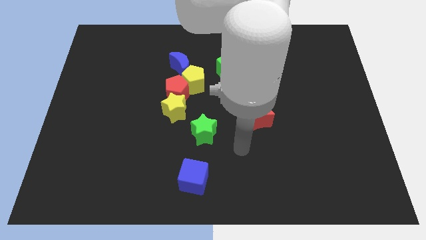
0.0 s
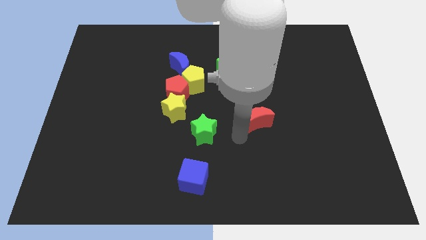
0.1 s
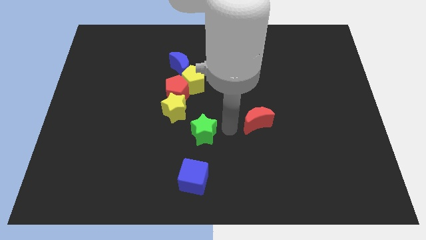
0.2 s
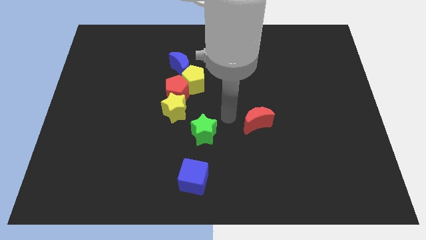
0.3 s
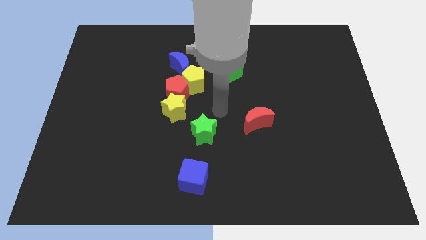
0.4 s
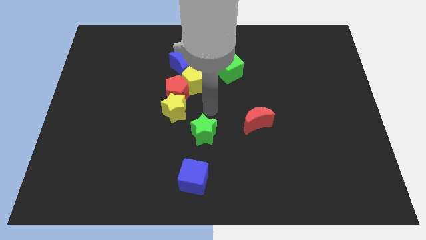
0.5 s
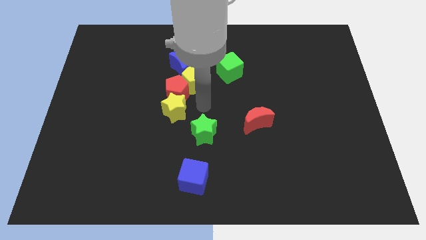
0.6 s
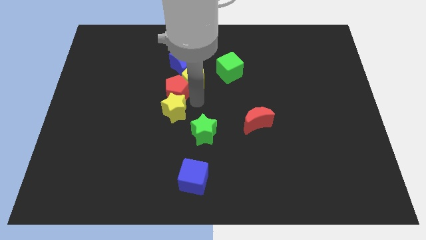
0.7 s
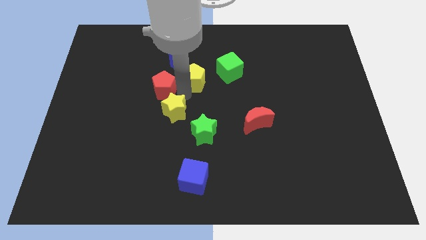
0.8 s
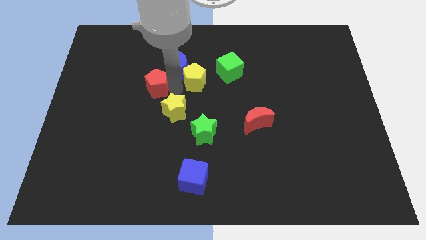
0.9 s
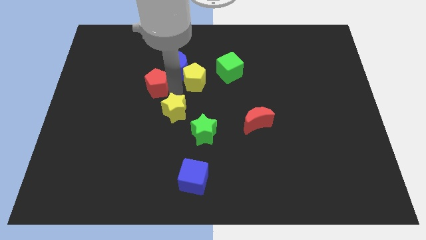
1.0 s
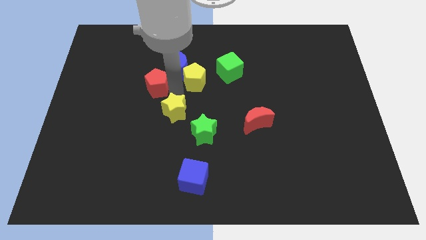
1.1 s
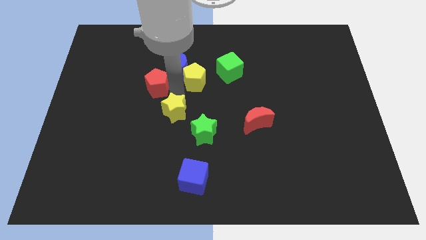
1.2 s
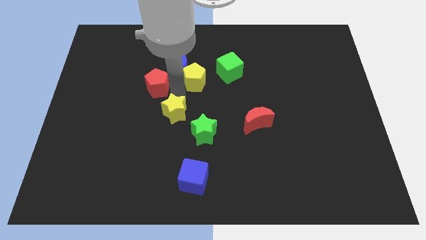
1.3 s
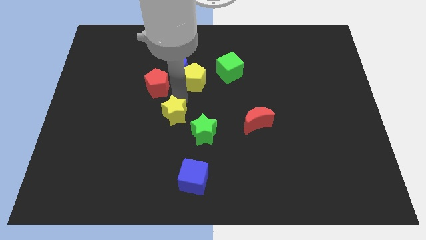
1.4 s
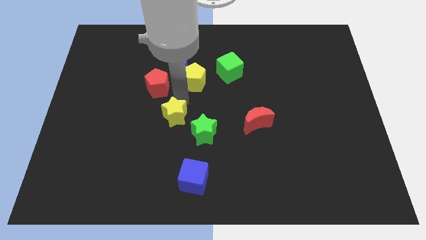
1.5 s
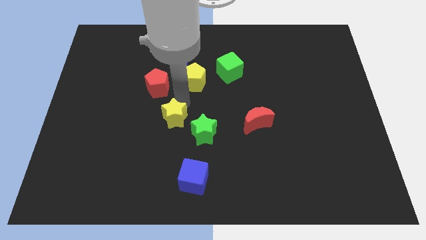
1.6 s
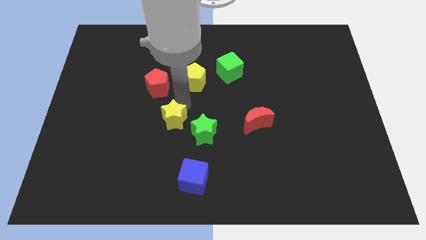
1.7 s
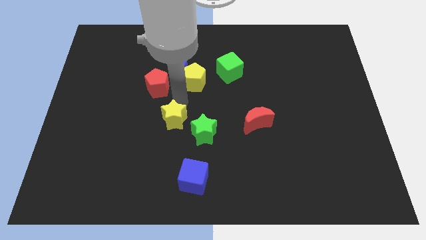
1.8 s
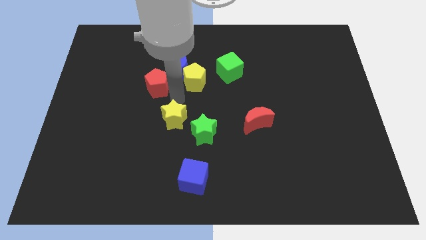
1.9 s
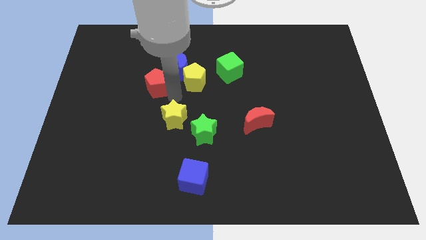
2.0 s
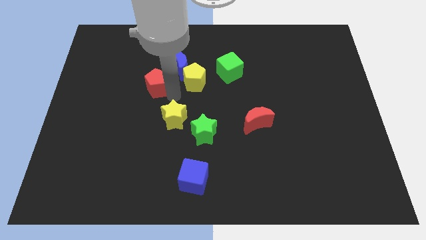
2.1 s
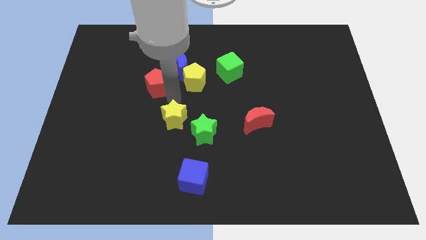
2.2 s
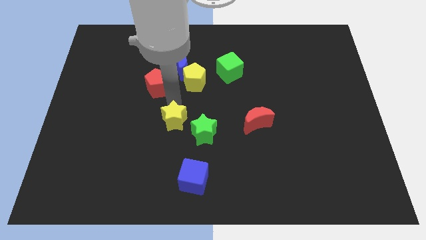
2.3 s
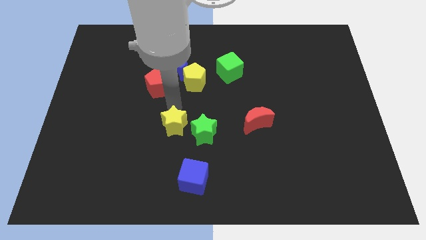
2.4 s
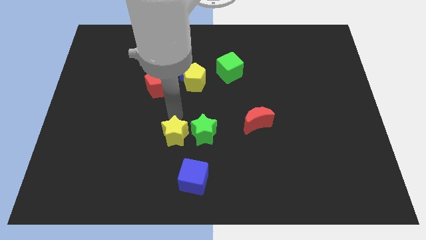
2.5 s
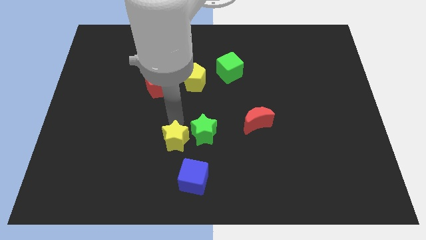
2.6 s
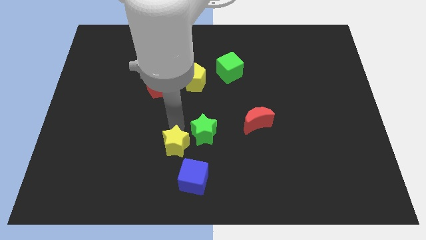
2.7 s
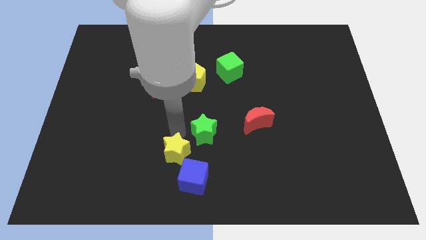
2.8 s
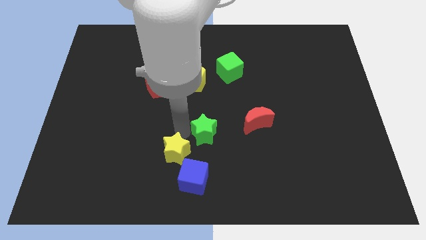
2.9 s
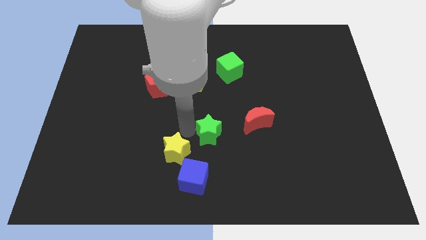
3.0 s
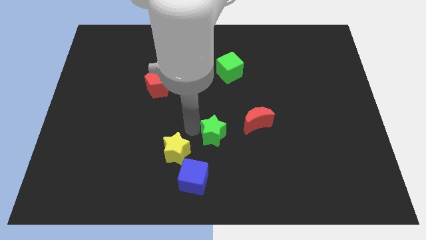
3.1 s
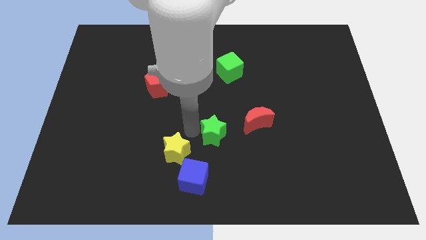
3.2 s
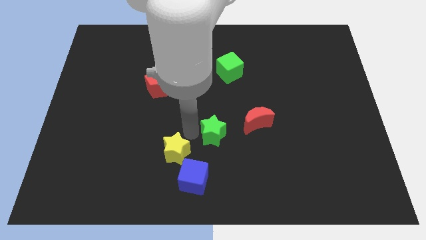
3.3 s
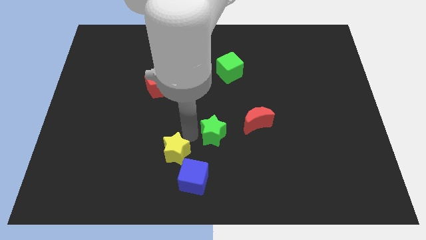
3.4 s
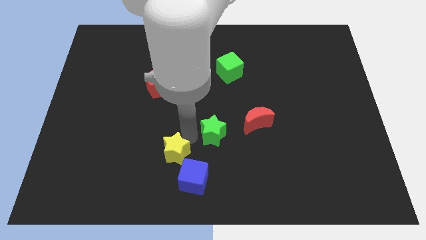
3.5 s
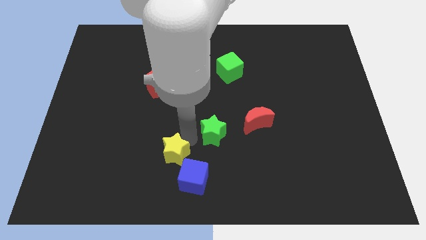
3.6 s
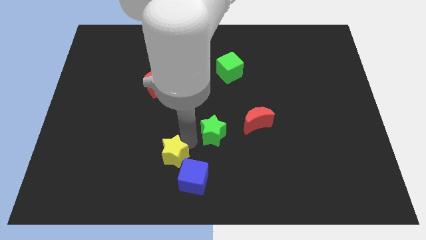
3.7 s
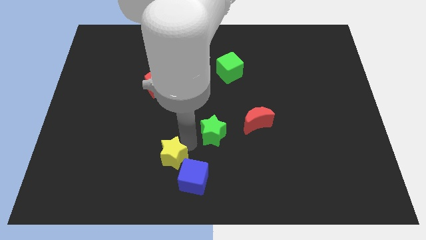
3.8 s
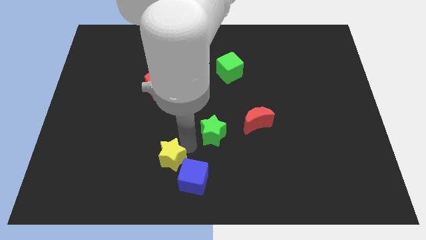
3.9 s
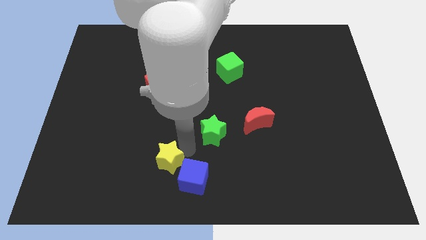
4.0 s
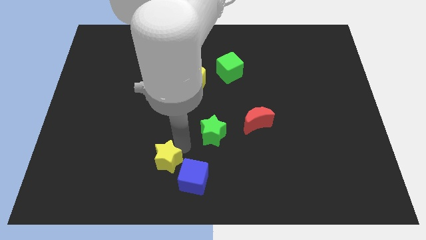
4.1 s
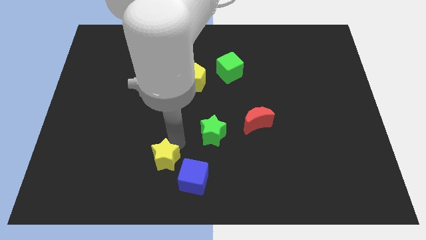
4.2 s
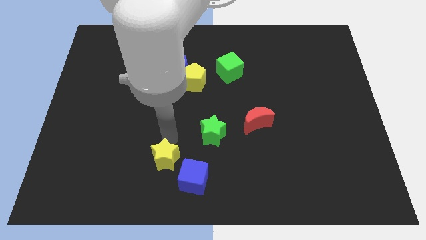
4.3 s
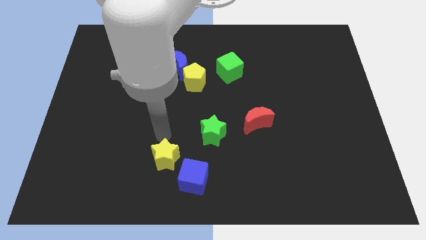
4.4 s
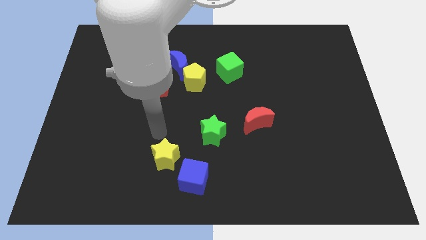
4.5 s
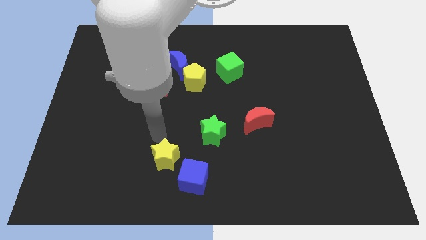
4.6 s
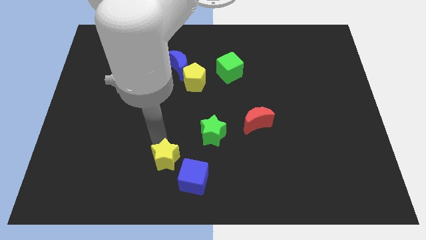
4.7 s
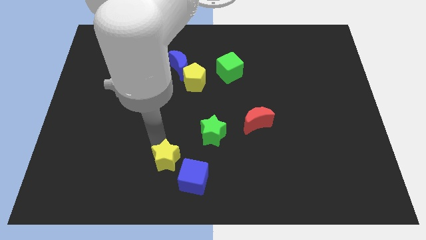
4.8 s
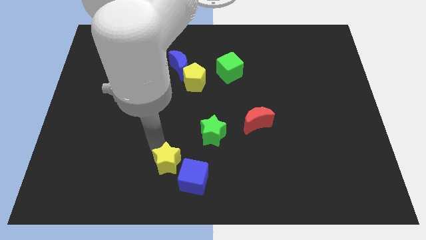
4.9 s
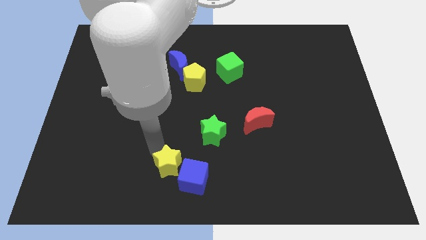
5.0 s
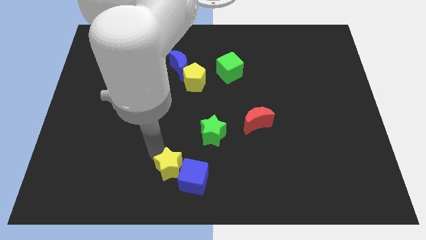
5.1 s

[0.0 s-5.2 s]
move the yellow star to the bottom side

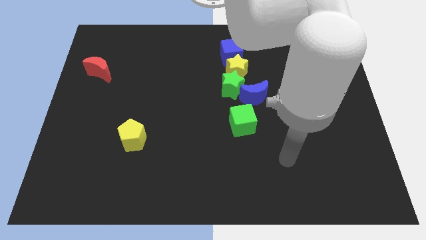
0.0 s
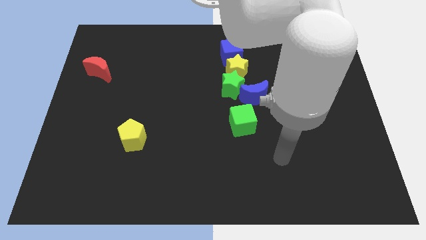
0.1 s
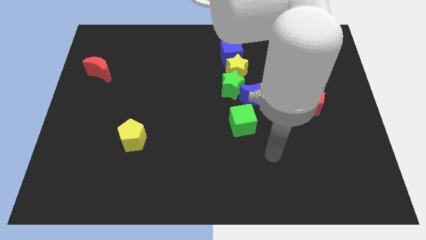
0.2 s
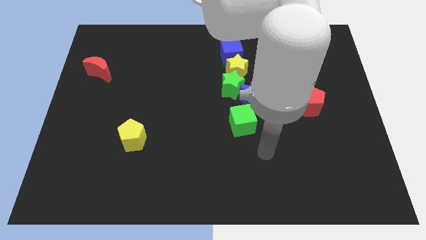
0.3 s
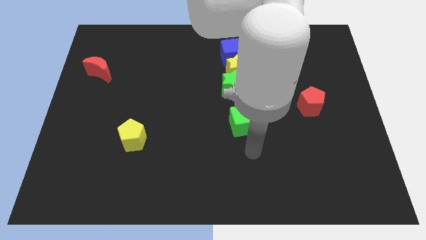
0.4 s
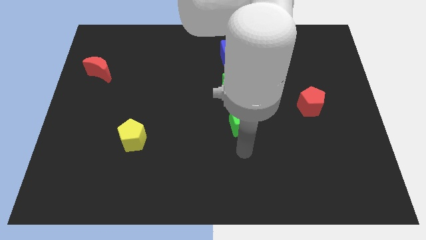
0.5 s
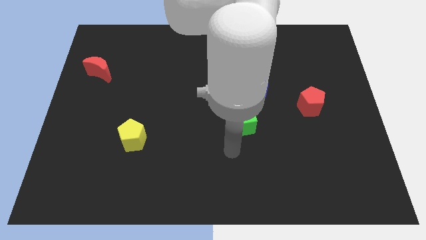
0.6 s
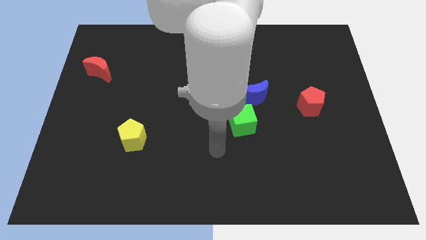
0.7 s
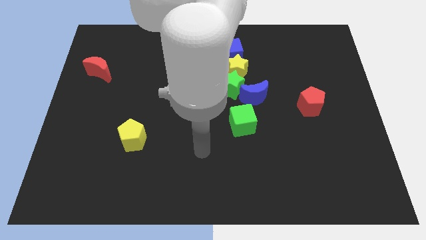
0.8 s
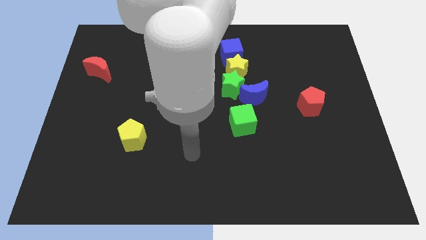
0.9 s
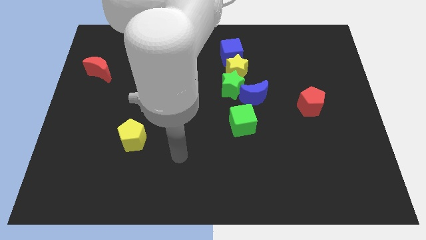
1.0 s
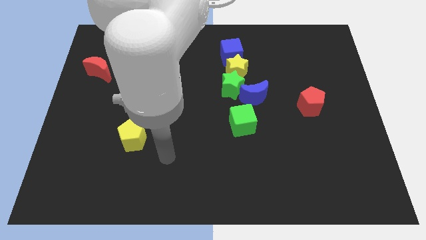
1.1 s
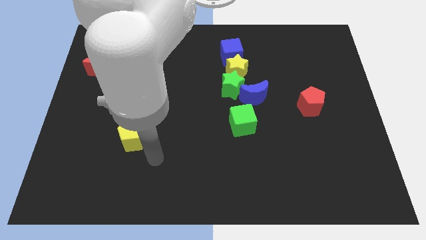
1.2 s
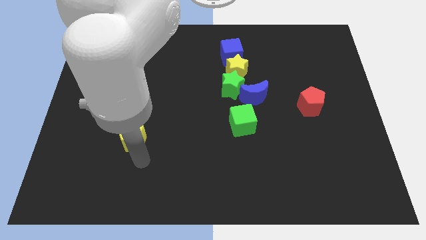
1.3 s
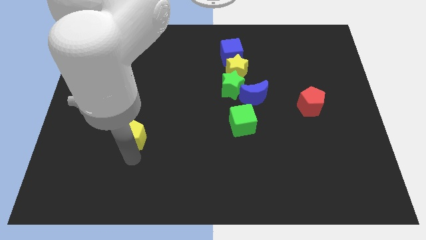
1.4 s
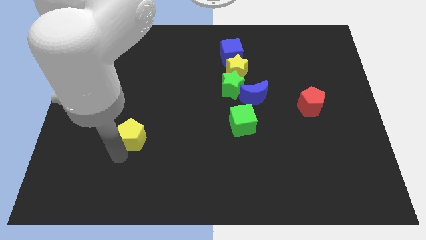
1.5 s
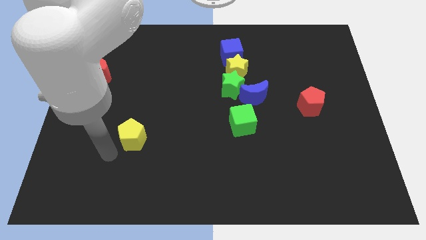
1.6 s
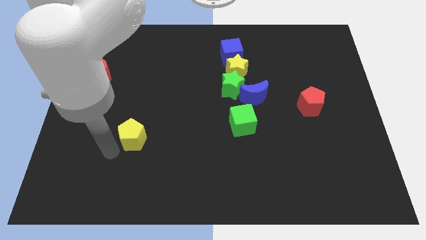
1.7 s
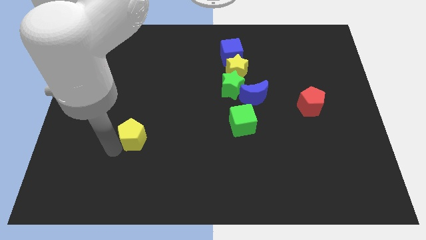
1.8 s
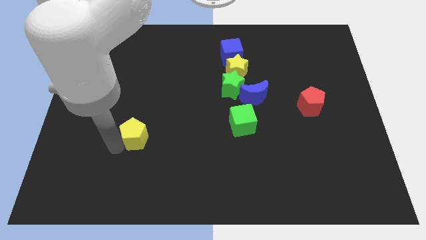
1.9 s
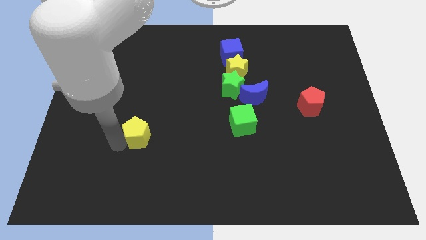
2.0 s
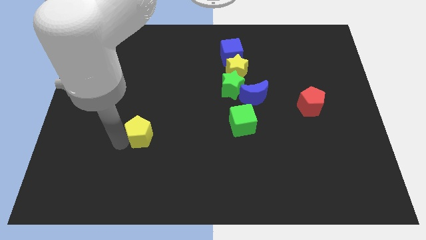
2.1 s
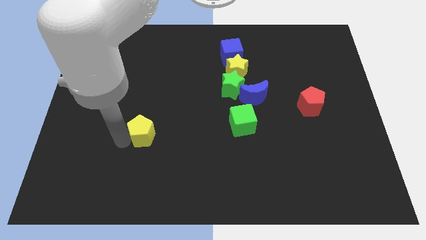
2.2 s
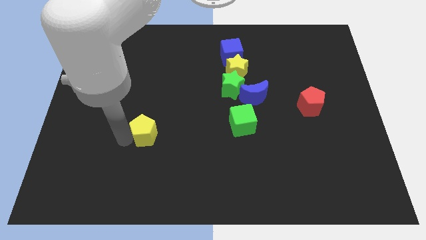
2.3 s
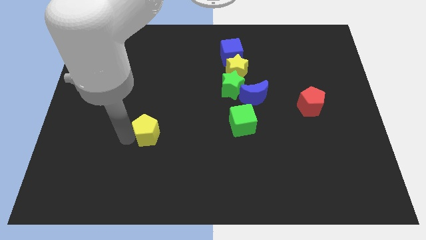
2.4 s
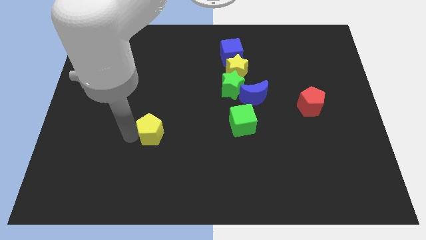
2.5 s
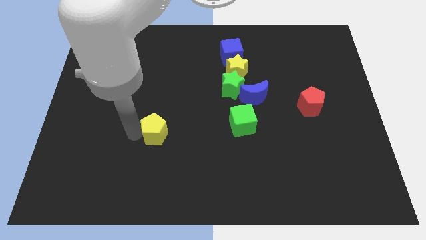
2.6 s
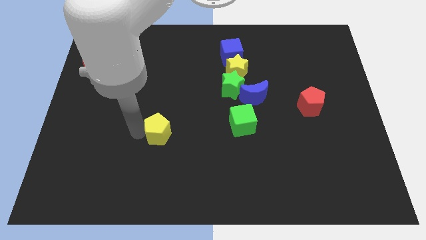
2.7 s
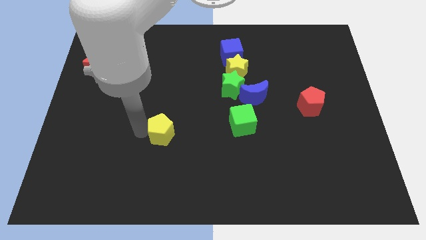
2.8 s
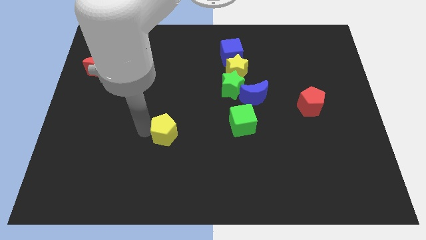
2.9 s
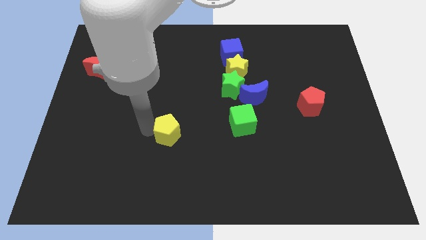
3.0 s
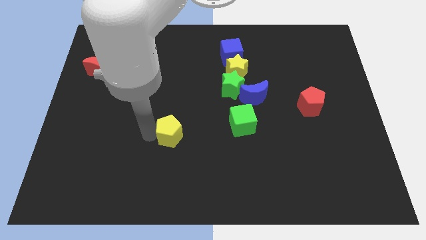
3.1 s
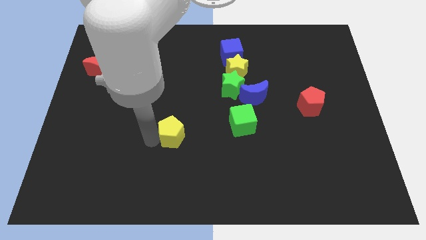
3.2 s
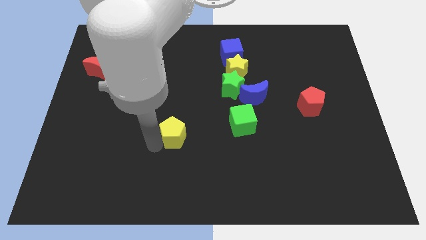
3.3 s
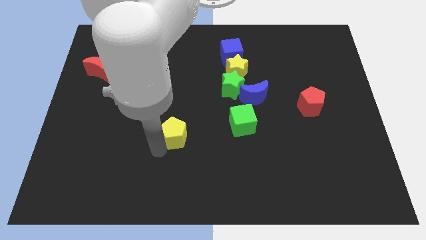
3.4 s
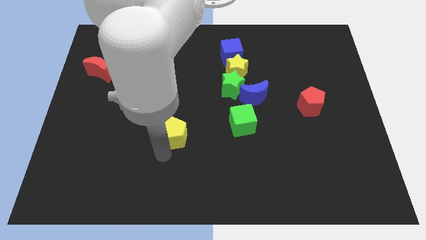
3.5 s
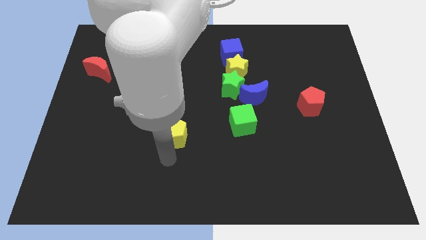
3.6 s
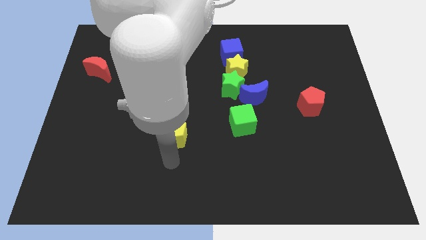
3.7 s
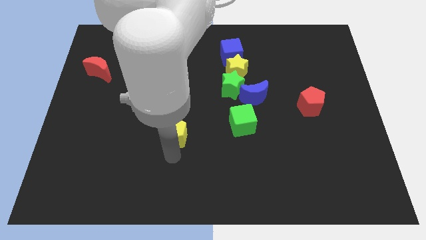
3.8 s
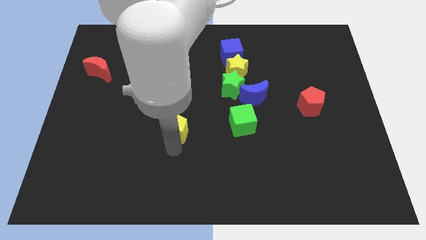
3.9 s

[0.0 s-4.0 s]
push the yellow pentagon to the center
